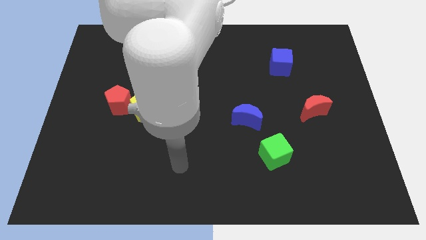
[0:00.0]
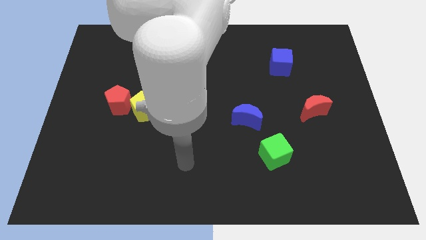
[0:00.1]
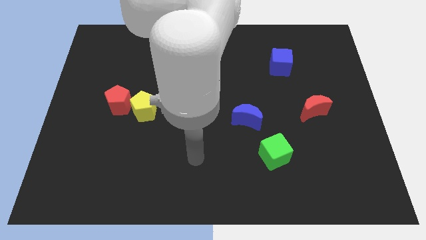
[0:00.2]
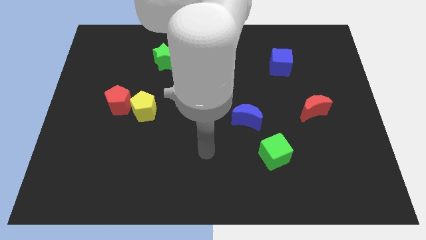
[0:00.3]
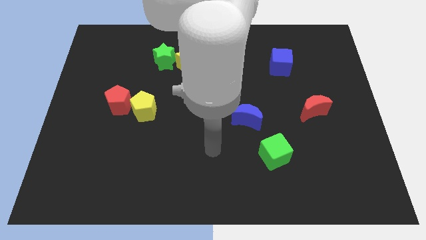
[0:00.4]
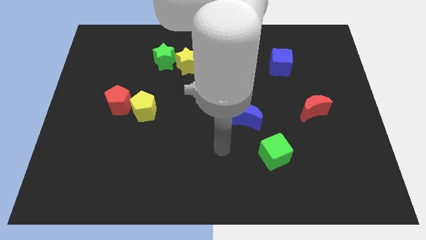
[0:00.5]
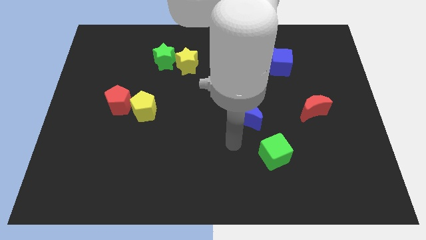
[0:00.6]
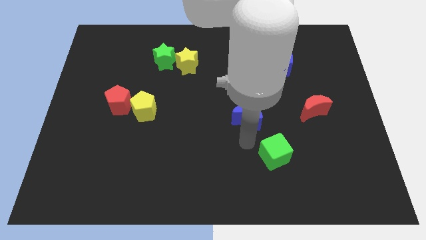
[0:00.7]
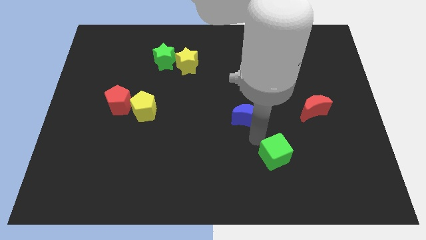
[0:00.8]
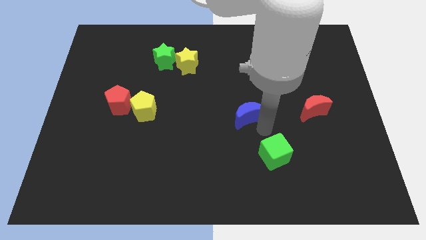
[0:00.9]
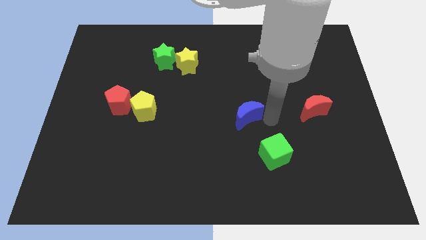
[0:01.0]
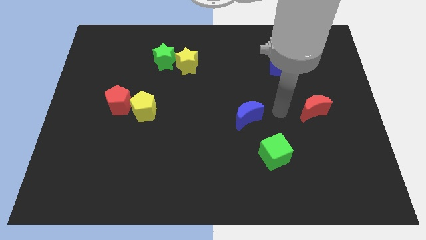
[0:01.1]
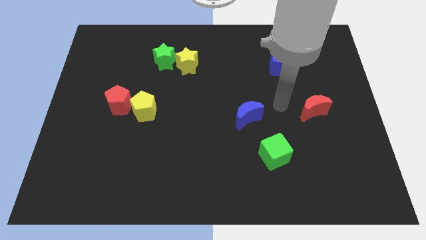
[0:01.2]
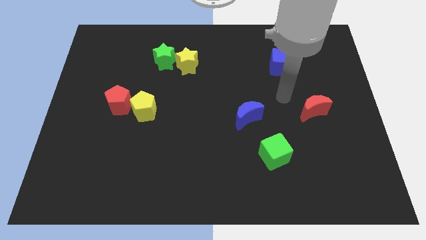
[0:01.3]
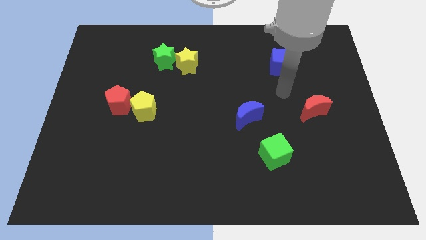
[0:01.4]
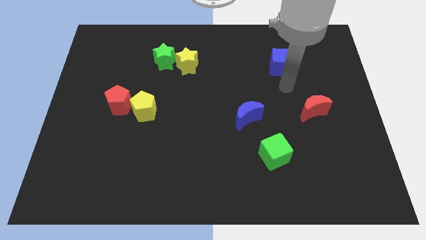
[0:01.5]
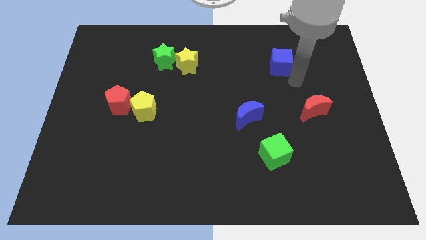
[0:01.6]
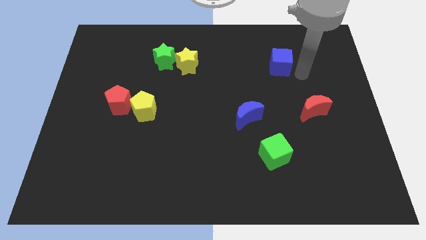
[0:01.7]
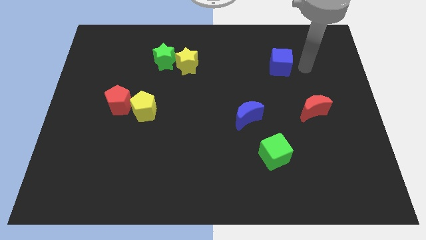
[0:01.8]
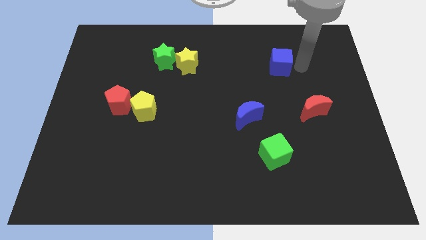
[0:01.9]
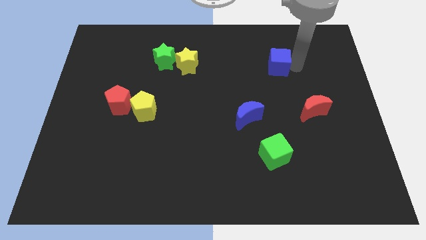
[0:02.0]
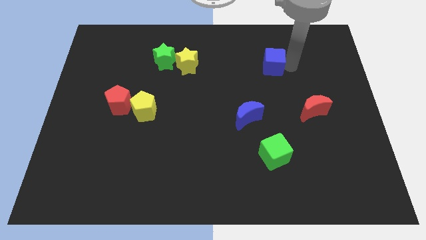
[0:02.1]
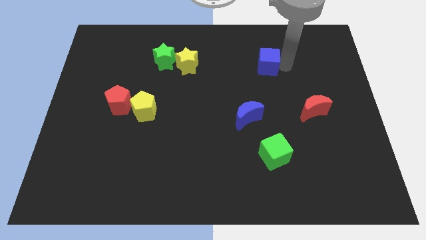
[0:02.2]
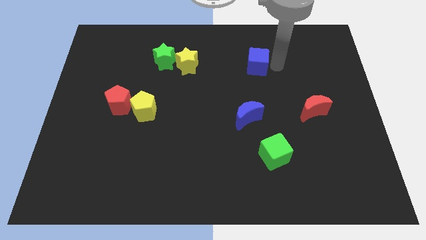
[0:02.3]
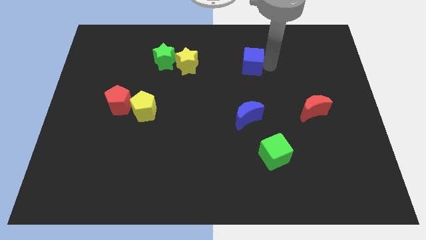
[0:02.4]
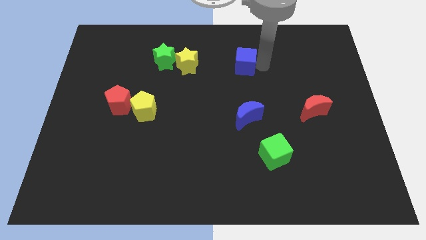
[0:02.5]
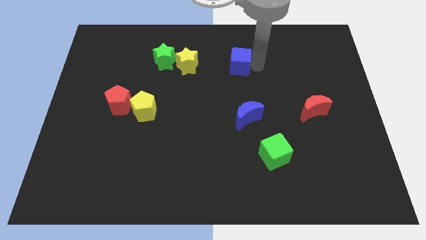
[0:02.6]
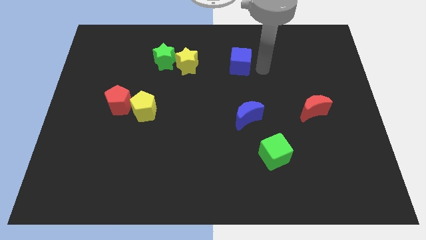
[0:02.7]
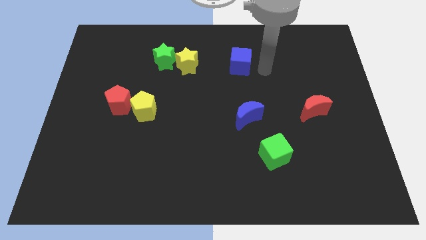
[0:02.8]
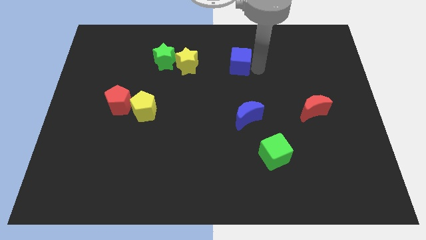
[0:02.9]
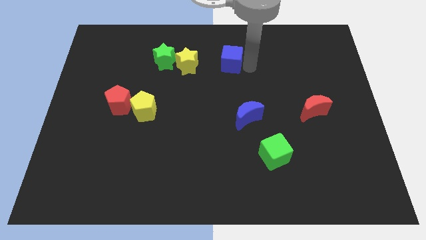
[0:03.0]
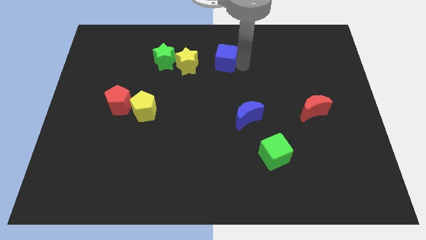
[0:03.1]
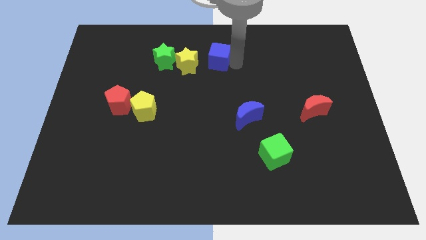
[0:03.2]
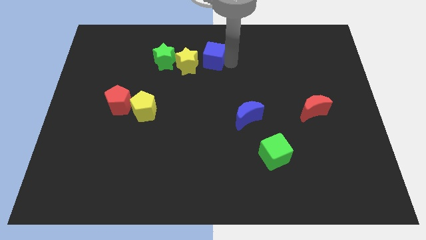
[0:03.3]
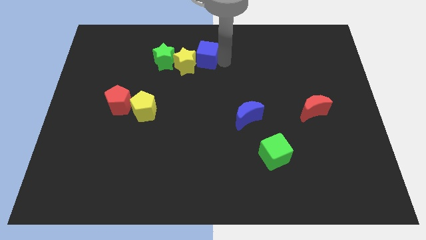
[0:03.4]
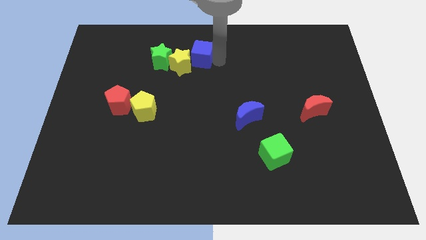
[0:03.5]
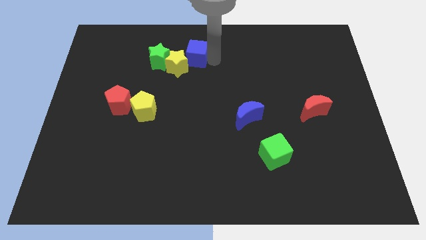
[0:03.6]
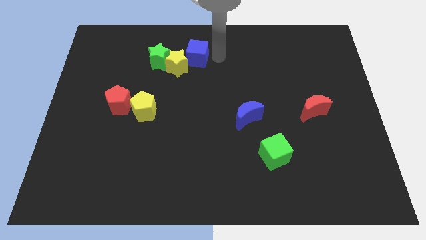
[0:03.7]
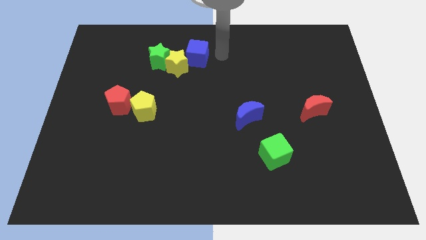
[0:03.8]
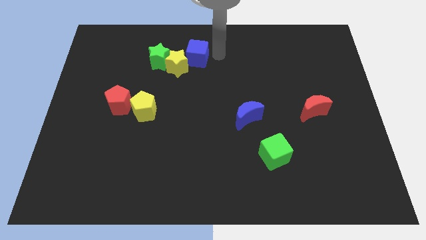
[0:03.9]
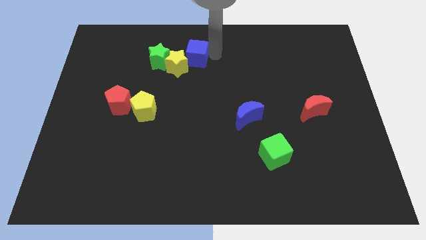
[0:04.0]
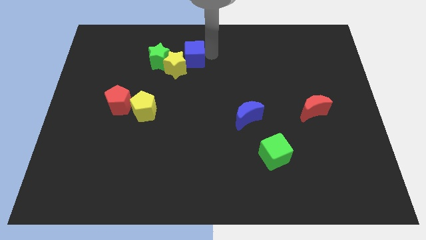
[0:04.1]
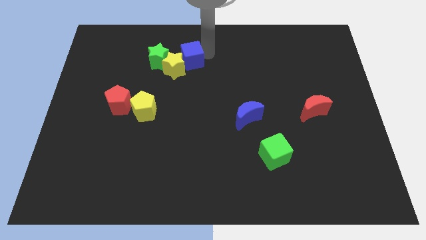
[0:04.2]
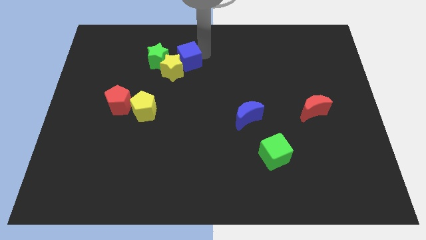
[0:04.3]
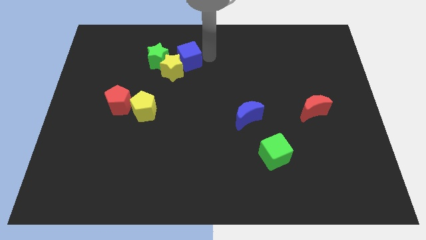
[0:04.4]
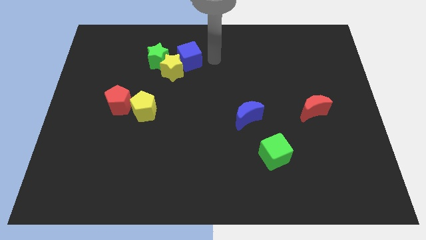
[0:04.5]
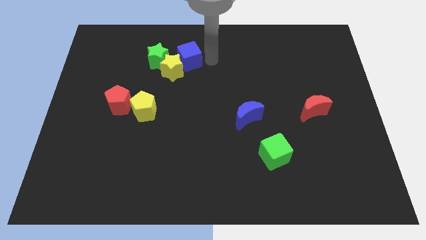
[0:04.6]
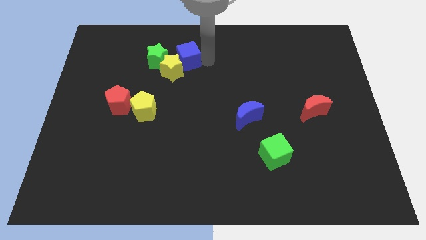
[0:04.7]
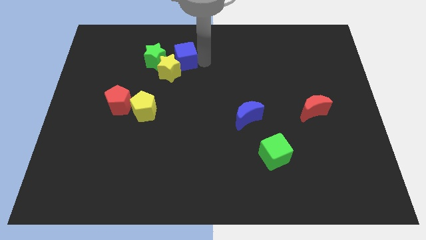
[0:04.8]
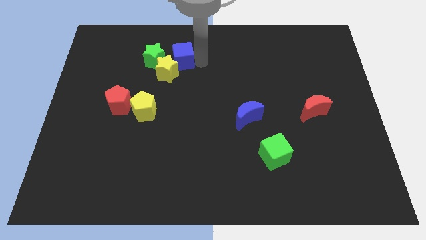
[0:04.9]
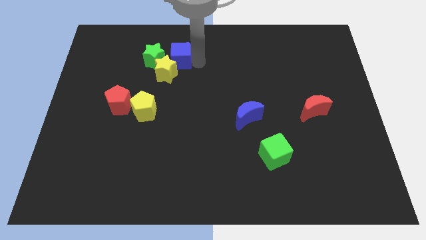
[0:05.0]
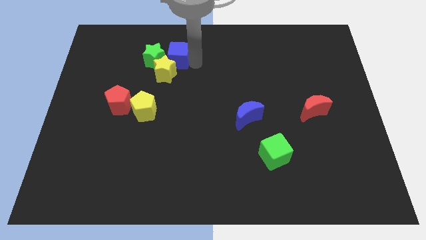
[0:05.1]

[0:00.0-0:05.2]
put the blue cube next to the green star

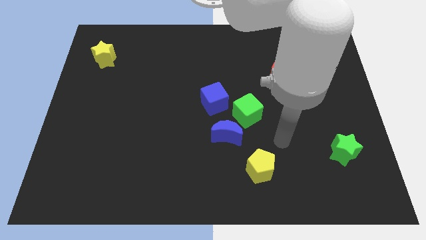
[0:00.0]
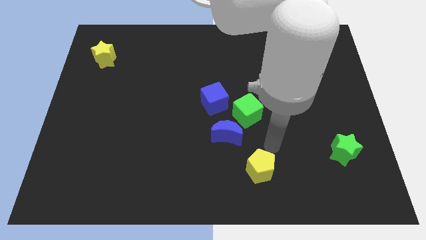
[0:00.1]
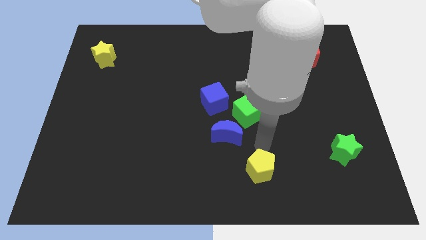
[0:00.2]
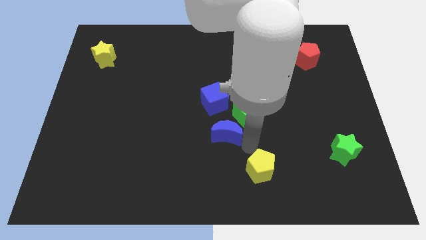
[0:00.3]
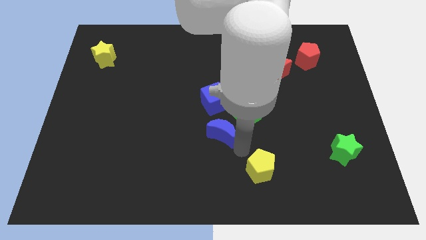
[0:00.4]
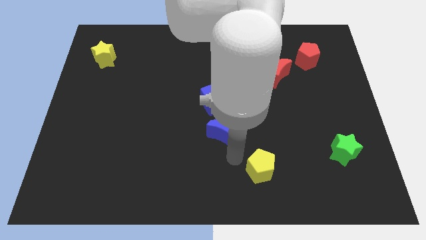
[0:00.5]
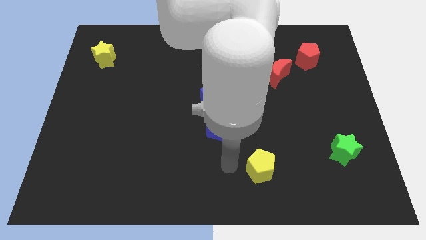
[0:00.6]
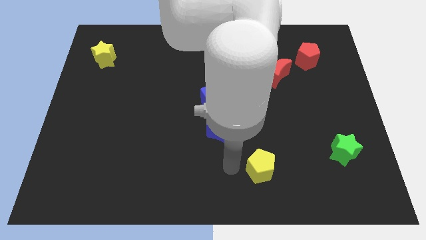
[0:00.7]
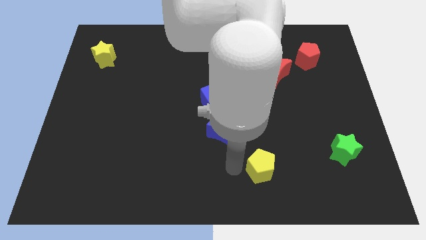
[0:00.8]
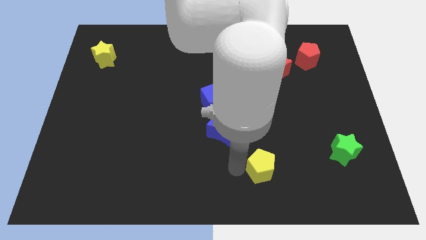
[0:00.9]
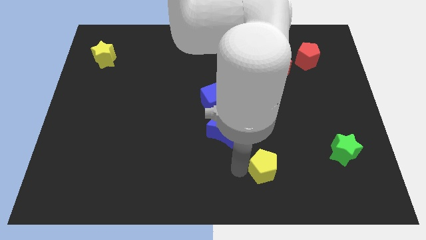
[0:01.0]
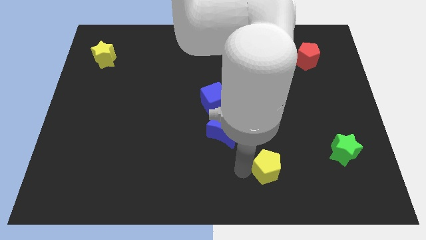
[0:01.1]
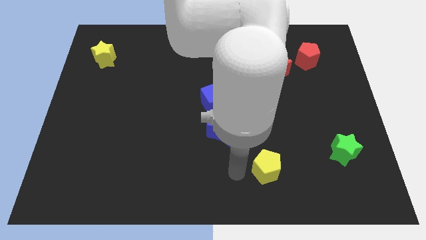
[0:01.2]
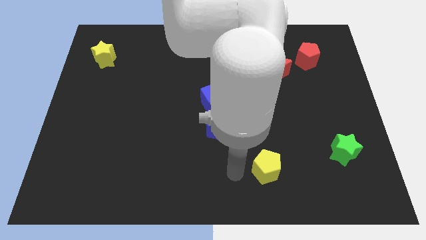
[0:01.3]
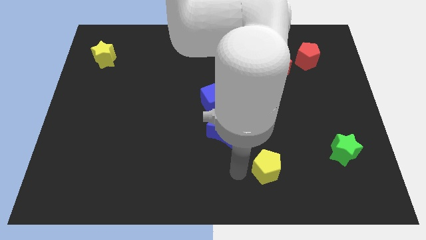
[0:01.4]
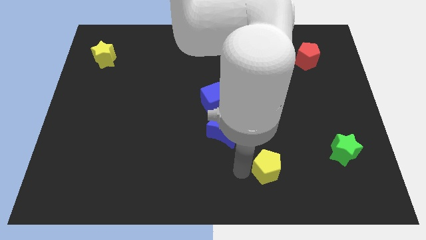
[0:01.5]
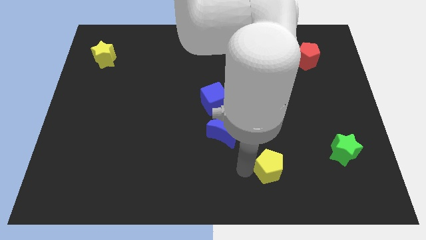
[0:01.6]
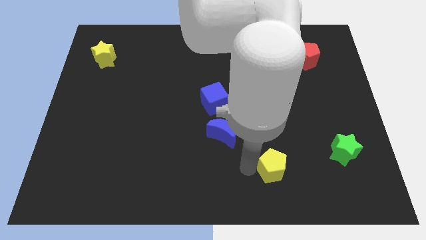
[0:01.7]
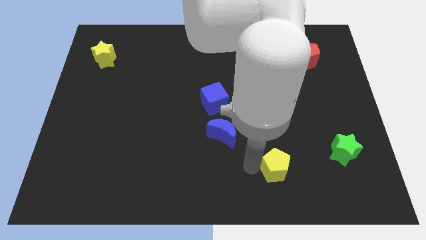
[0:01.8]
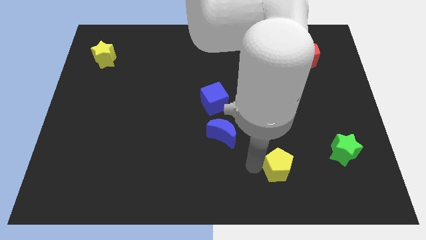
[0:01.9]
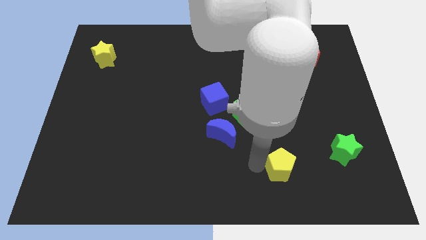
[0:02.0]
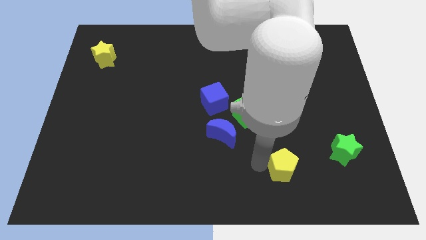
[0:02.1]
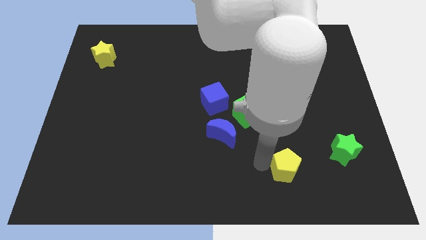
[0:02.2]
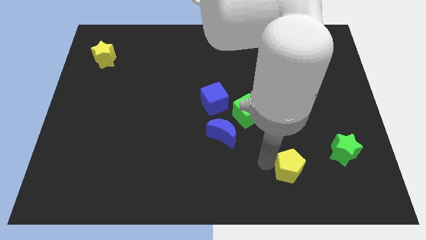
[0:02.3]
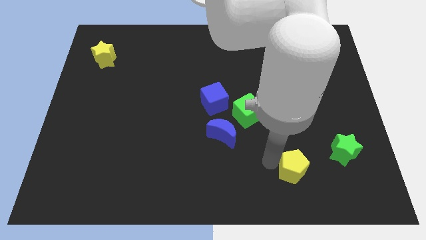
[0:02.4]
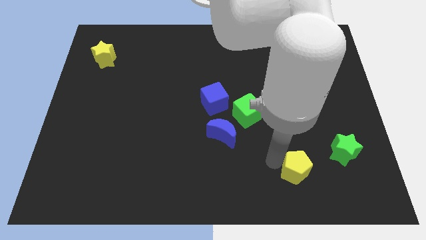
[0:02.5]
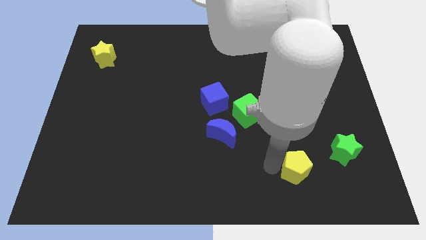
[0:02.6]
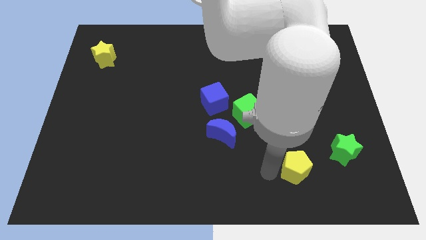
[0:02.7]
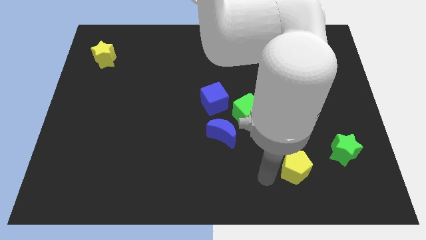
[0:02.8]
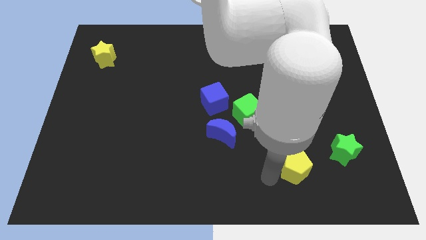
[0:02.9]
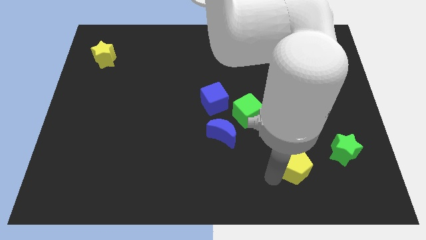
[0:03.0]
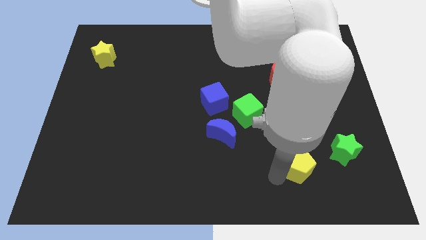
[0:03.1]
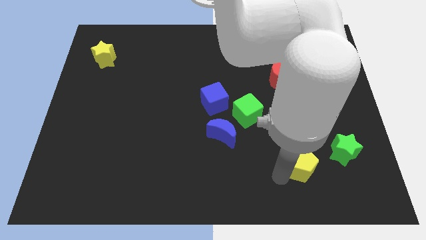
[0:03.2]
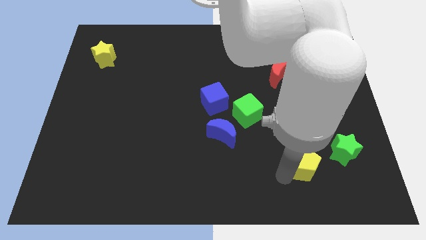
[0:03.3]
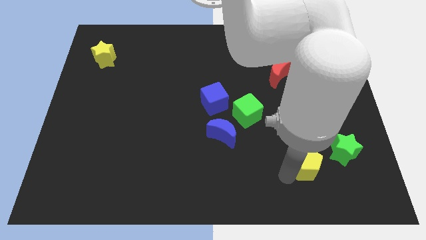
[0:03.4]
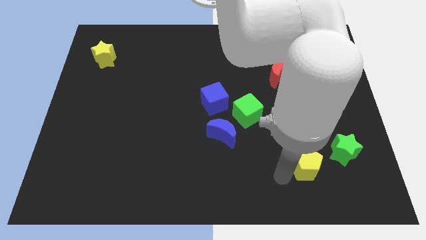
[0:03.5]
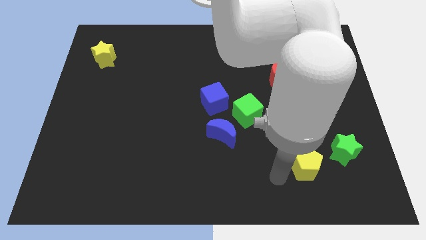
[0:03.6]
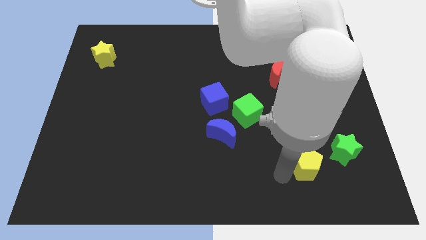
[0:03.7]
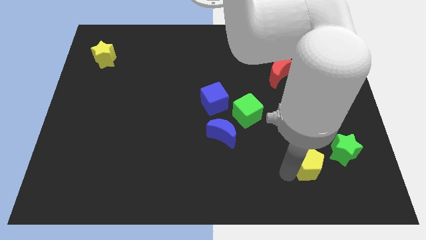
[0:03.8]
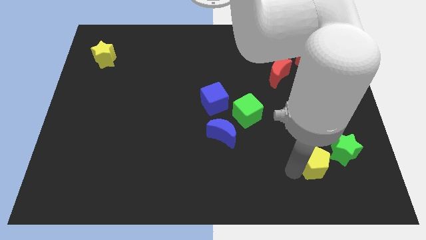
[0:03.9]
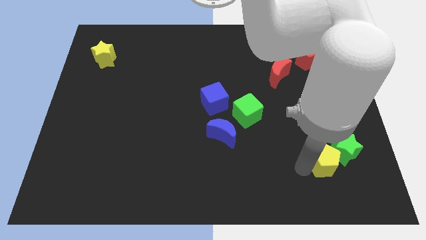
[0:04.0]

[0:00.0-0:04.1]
put the yellow pentagon close to the green star
